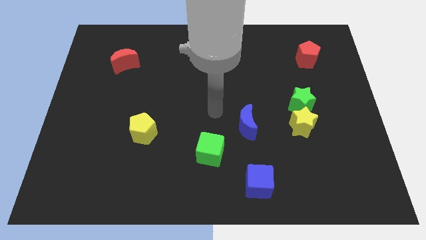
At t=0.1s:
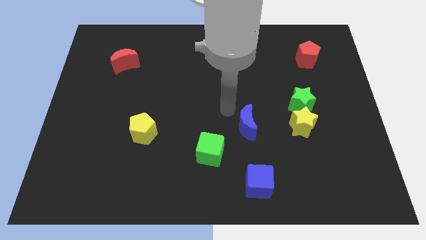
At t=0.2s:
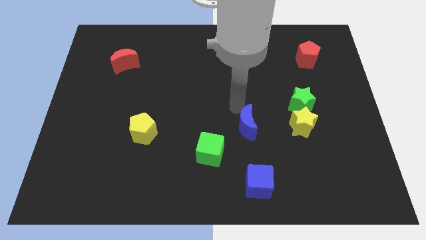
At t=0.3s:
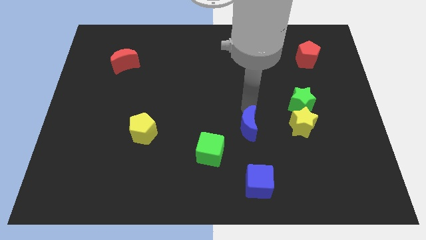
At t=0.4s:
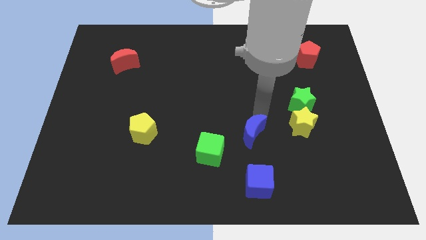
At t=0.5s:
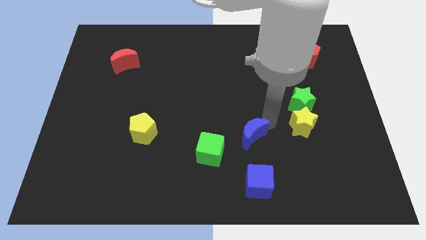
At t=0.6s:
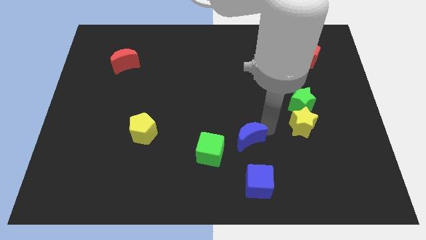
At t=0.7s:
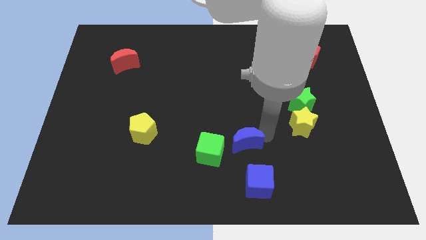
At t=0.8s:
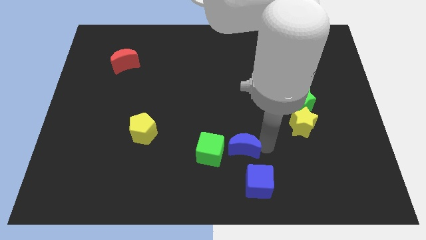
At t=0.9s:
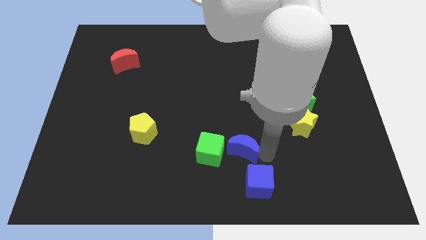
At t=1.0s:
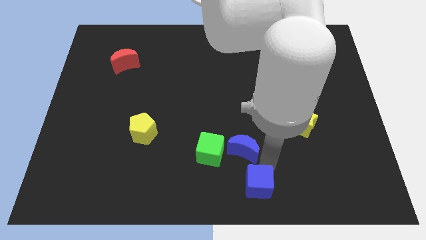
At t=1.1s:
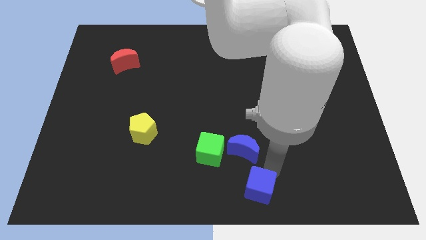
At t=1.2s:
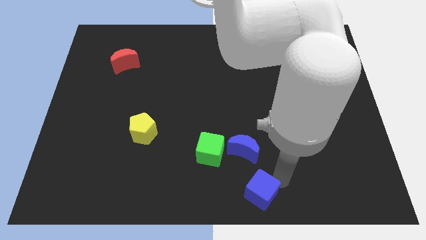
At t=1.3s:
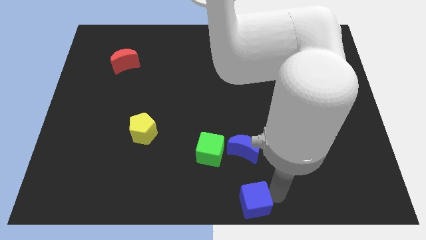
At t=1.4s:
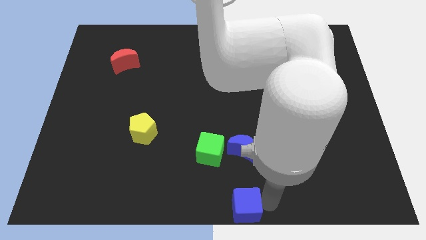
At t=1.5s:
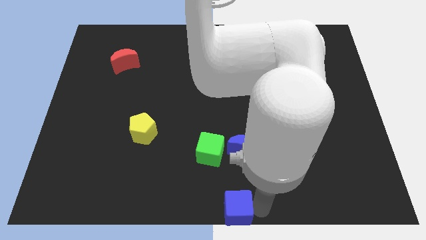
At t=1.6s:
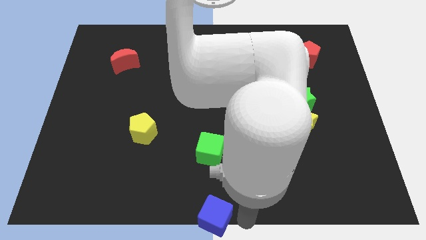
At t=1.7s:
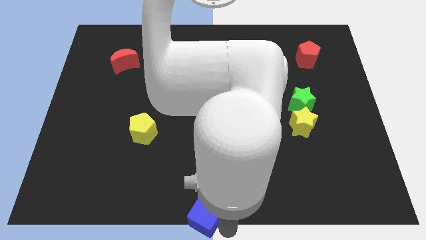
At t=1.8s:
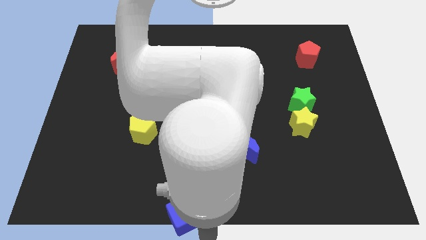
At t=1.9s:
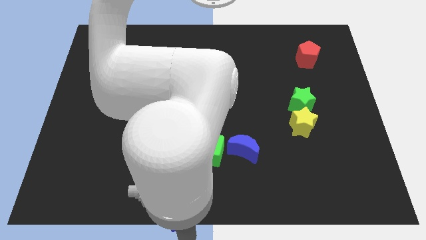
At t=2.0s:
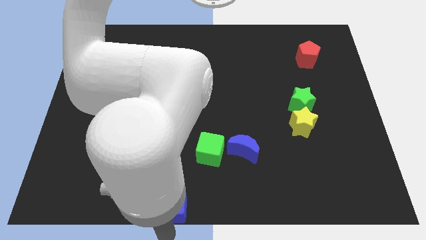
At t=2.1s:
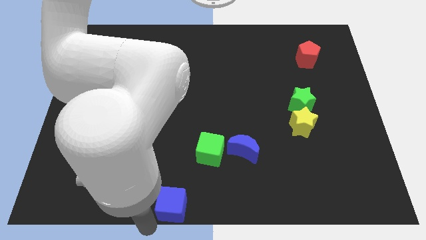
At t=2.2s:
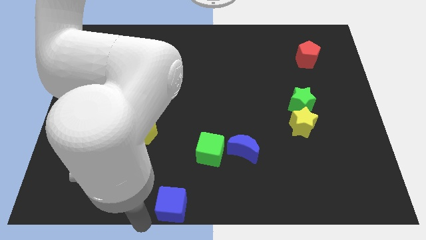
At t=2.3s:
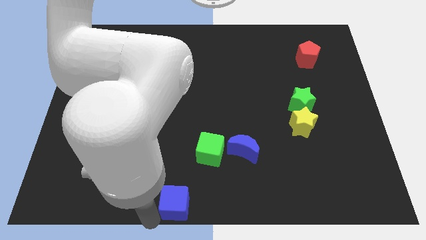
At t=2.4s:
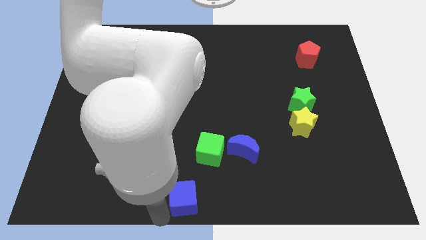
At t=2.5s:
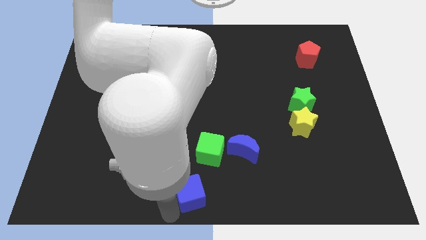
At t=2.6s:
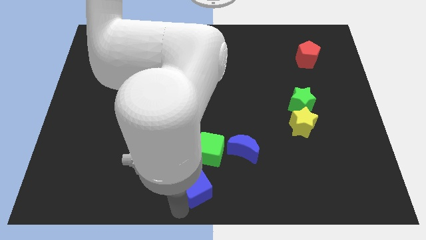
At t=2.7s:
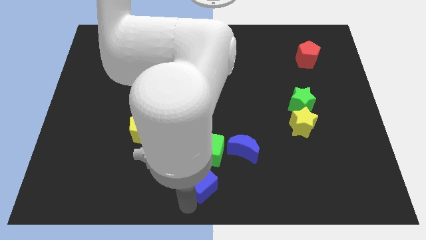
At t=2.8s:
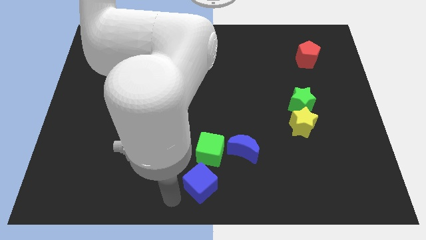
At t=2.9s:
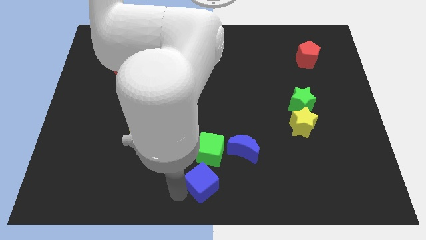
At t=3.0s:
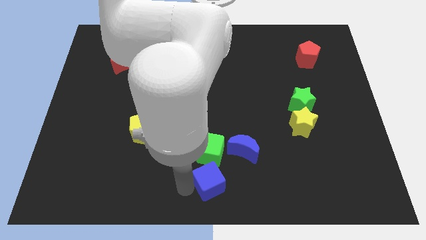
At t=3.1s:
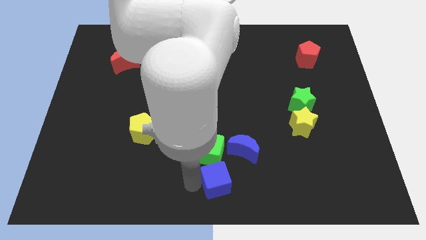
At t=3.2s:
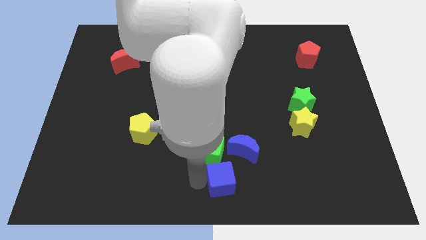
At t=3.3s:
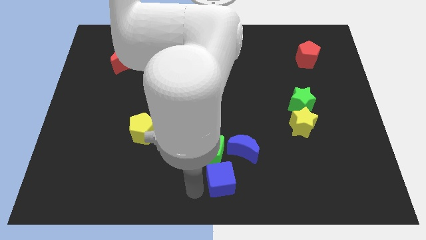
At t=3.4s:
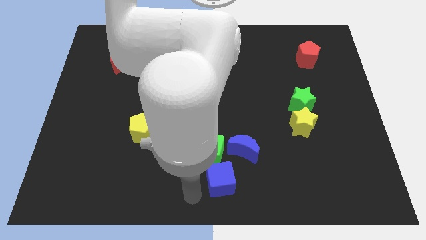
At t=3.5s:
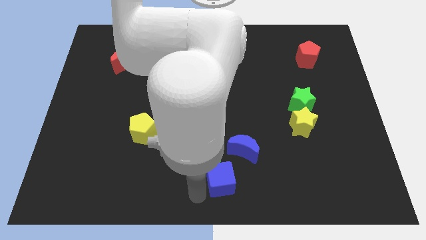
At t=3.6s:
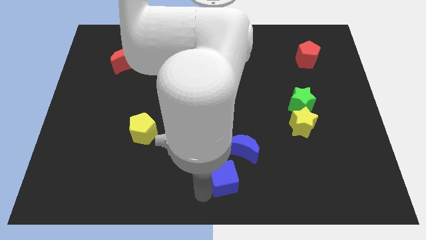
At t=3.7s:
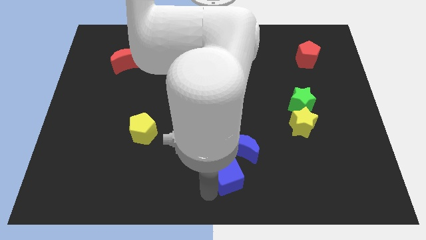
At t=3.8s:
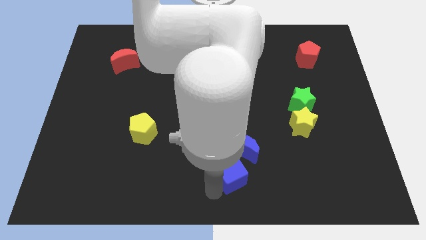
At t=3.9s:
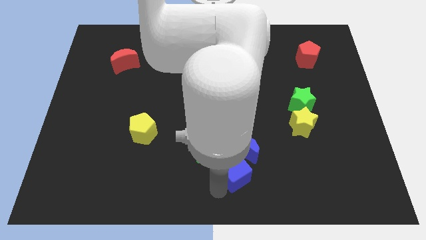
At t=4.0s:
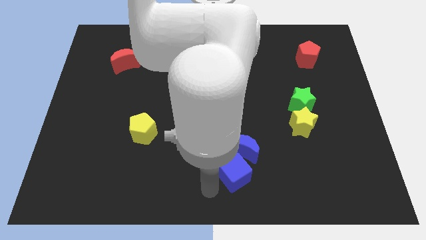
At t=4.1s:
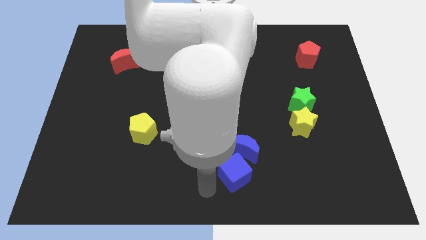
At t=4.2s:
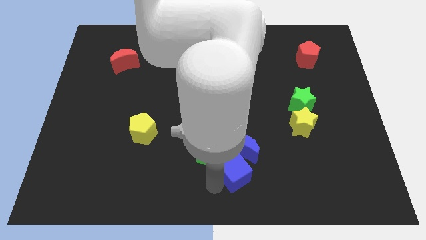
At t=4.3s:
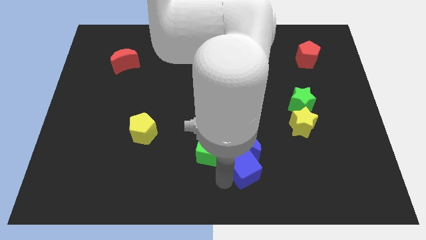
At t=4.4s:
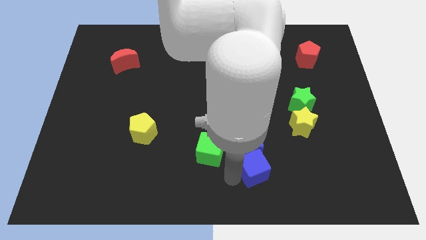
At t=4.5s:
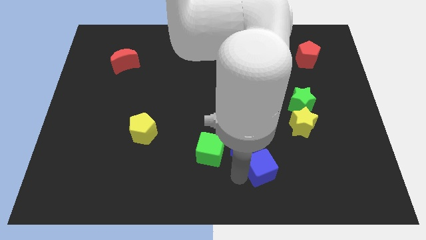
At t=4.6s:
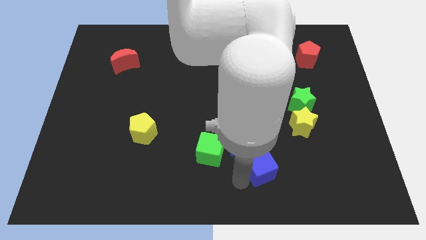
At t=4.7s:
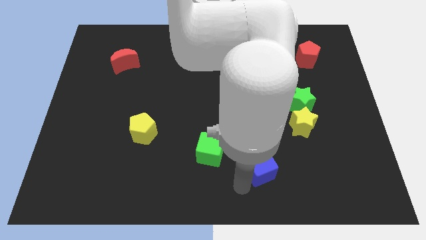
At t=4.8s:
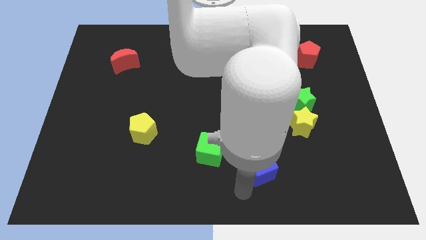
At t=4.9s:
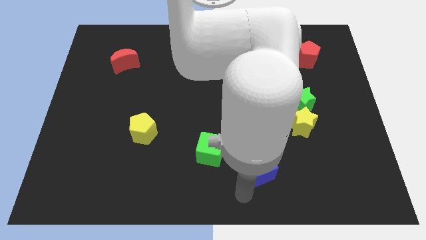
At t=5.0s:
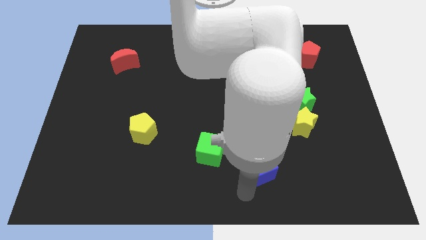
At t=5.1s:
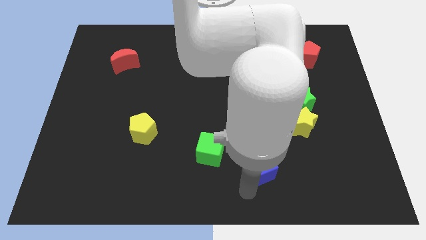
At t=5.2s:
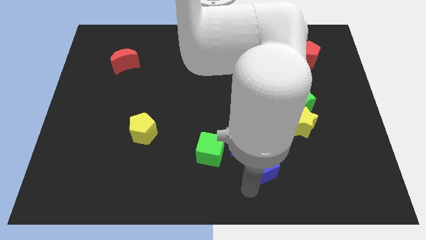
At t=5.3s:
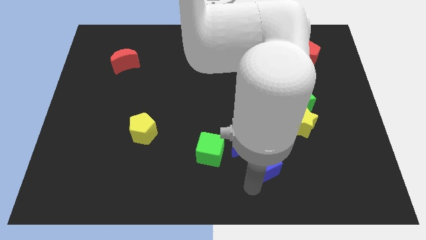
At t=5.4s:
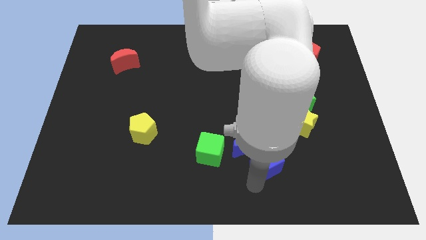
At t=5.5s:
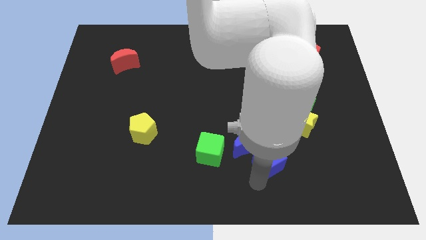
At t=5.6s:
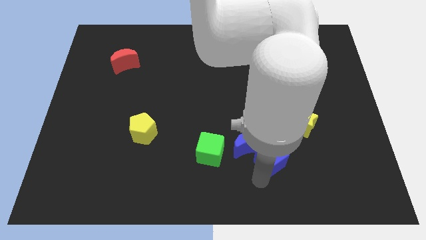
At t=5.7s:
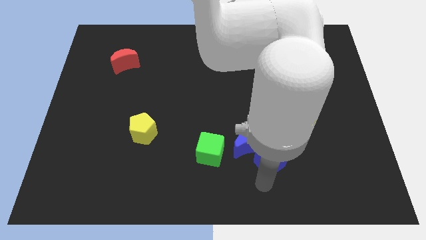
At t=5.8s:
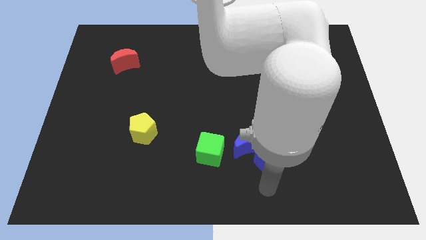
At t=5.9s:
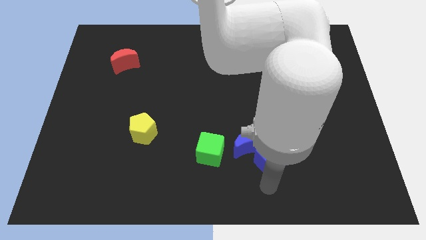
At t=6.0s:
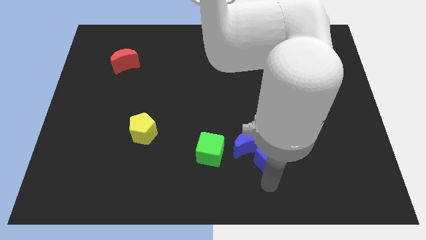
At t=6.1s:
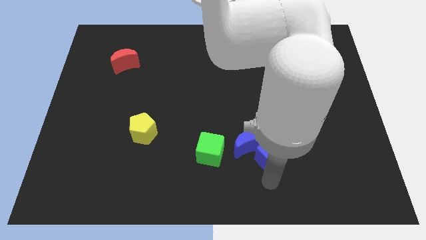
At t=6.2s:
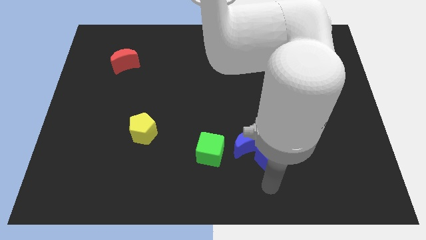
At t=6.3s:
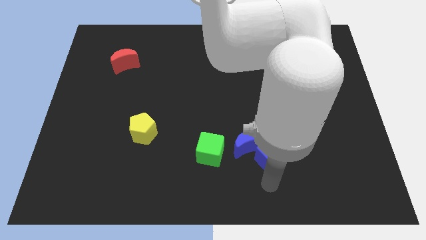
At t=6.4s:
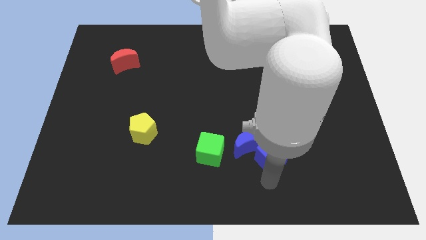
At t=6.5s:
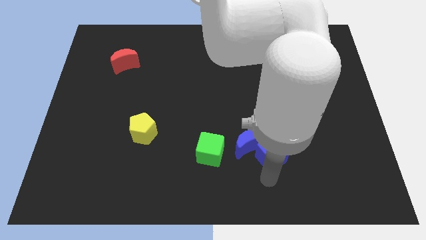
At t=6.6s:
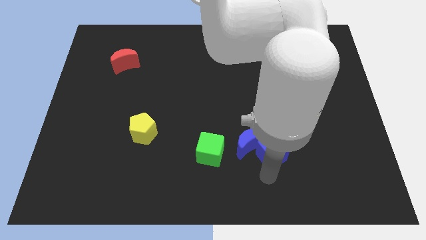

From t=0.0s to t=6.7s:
slide the blue cube a bit up

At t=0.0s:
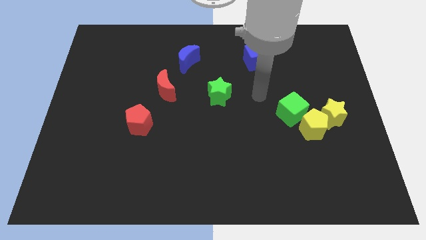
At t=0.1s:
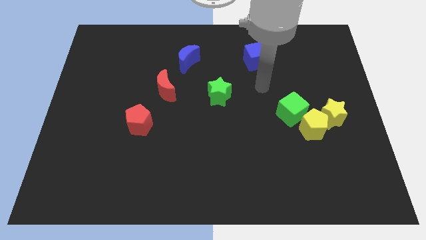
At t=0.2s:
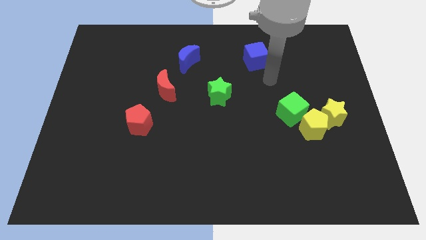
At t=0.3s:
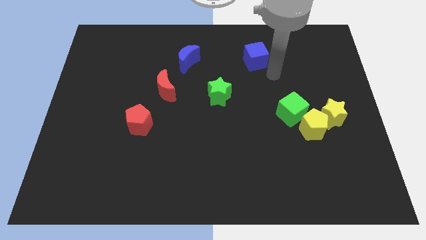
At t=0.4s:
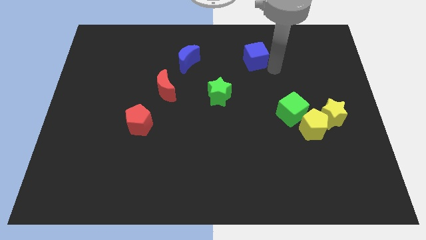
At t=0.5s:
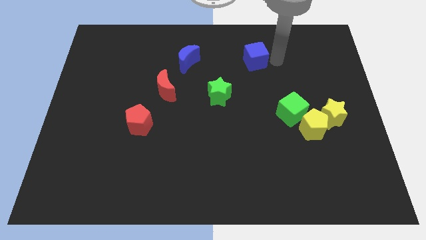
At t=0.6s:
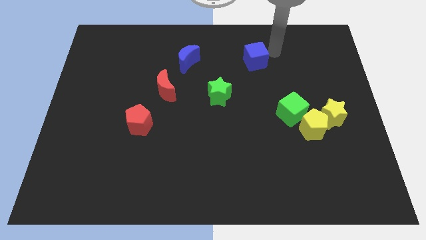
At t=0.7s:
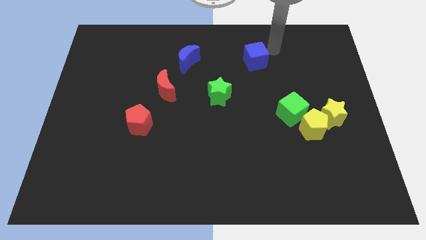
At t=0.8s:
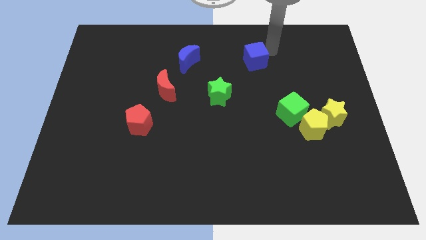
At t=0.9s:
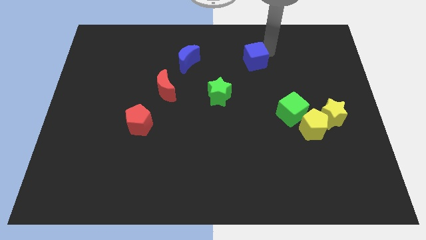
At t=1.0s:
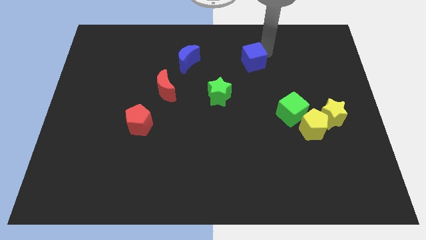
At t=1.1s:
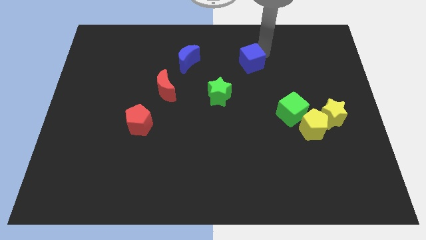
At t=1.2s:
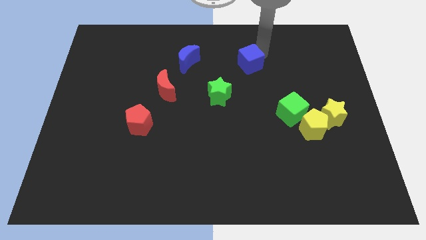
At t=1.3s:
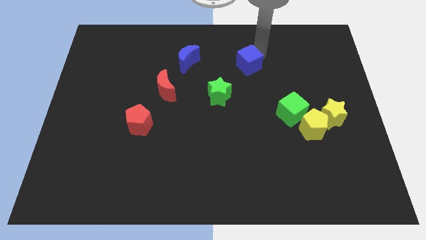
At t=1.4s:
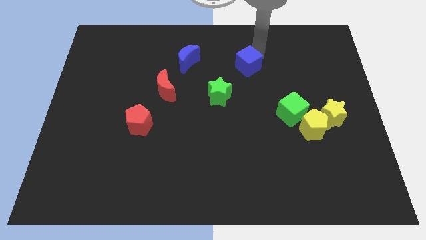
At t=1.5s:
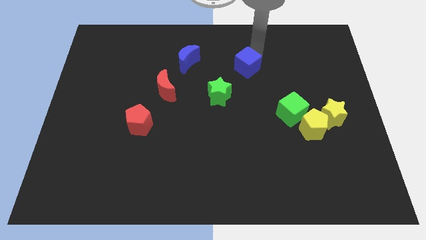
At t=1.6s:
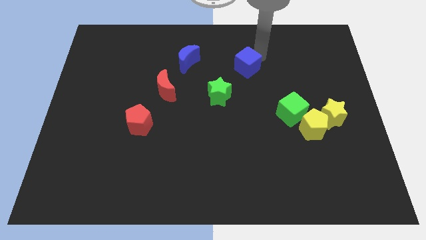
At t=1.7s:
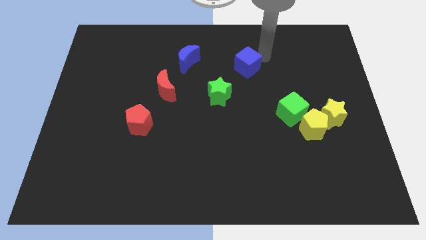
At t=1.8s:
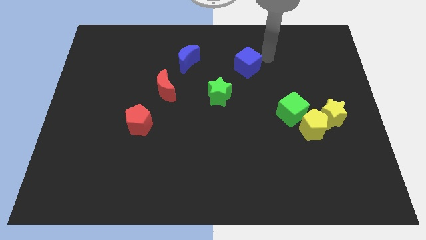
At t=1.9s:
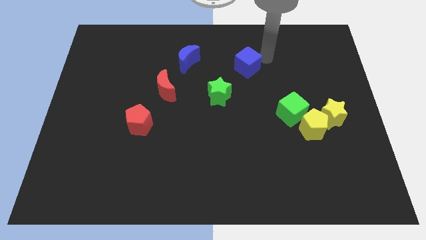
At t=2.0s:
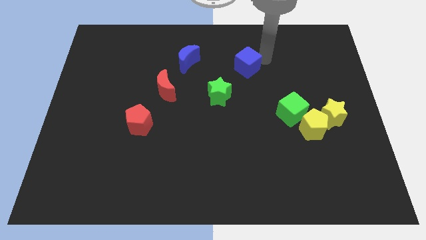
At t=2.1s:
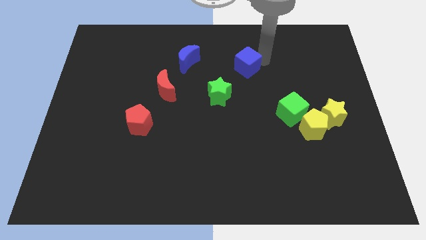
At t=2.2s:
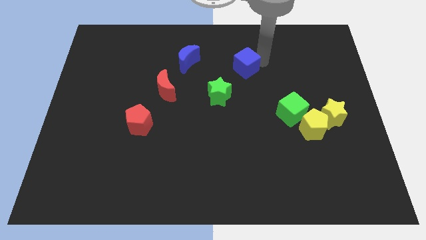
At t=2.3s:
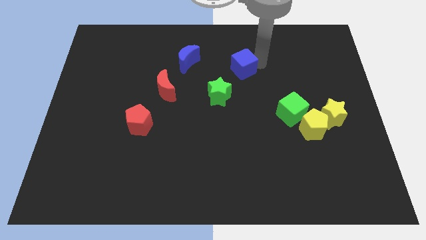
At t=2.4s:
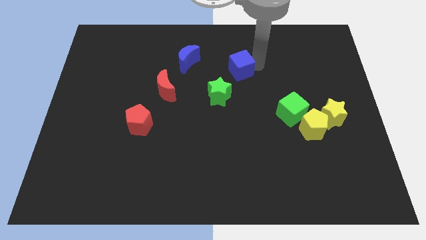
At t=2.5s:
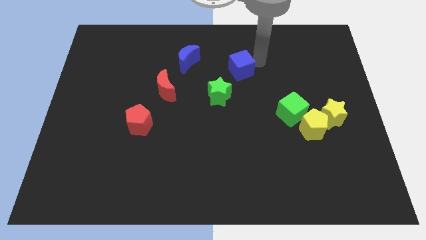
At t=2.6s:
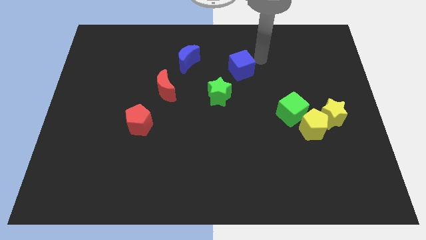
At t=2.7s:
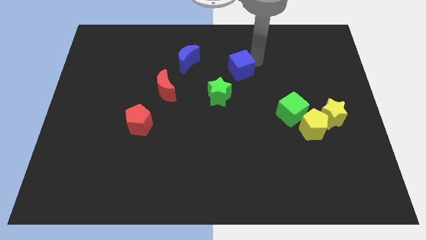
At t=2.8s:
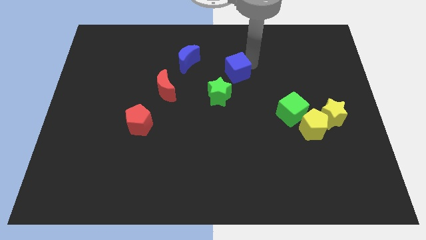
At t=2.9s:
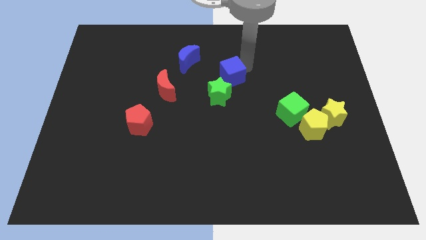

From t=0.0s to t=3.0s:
push the blue cube a bit downwards and left
